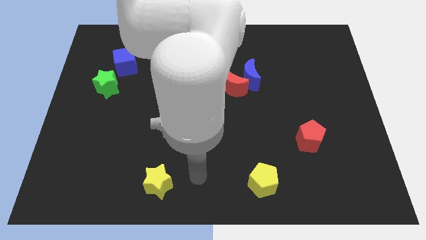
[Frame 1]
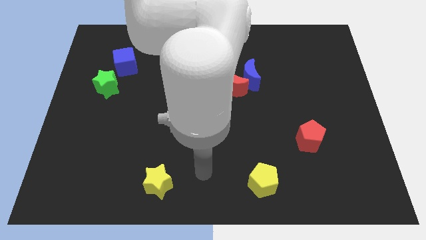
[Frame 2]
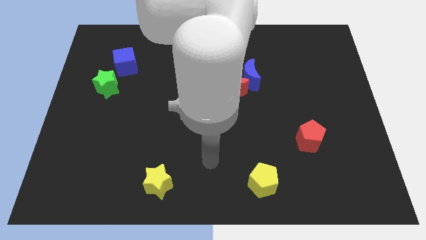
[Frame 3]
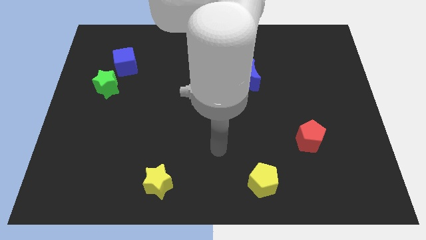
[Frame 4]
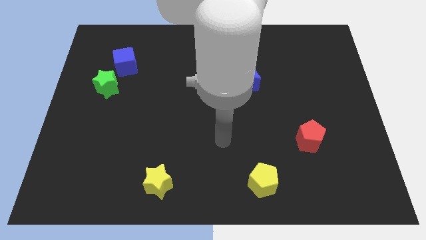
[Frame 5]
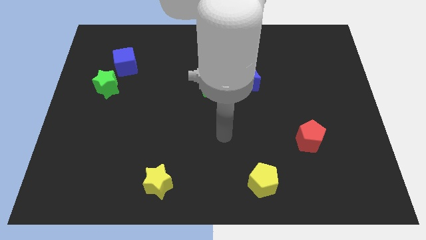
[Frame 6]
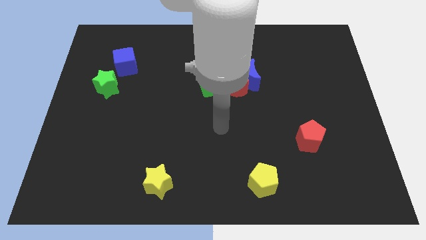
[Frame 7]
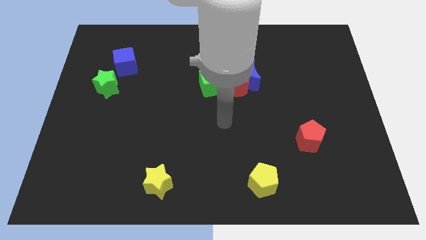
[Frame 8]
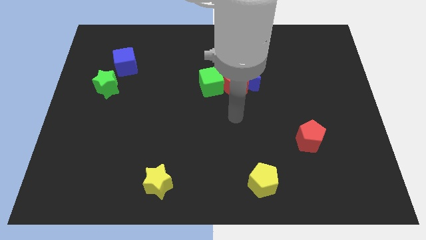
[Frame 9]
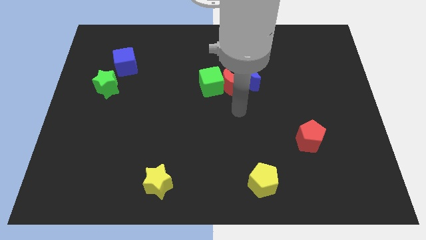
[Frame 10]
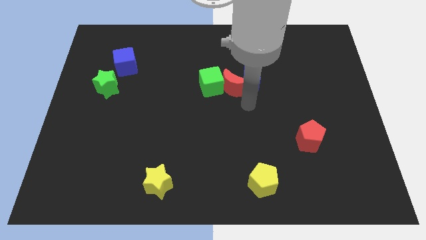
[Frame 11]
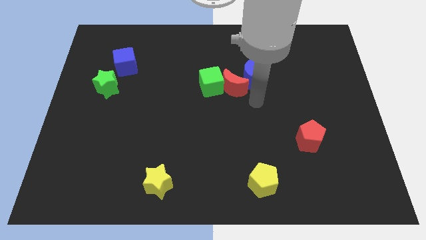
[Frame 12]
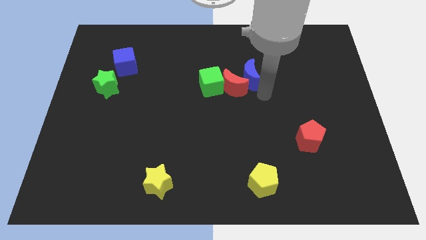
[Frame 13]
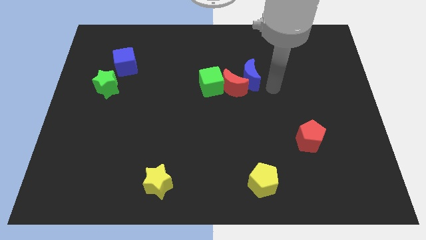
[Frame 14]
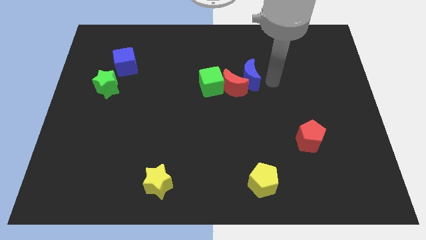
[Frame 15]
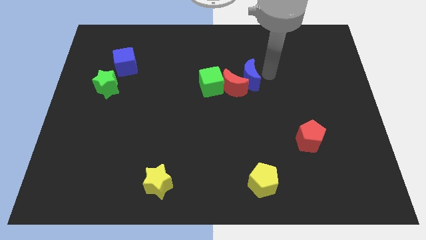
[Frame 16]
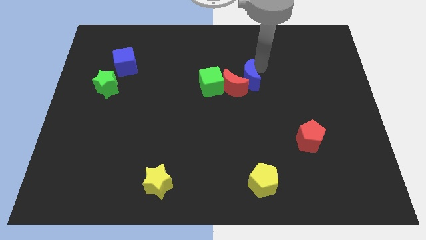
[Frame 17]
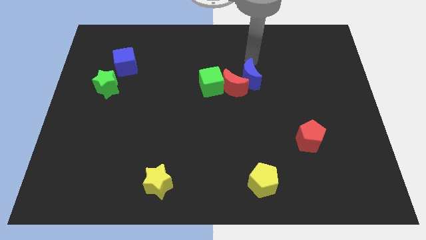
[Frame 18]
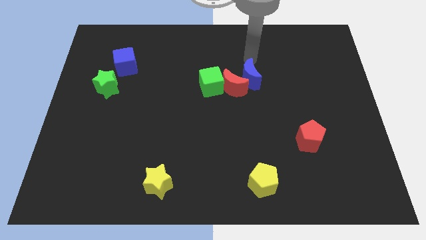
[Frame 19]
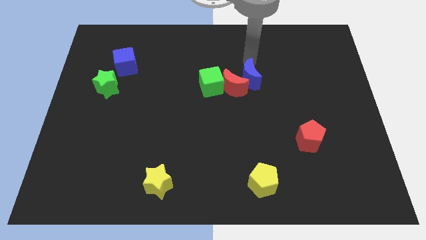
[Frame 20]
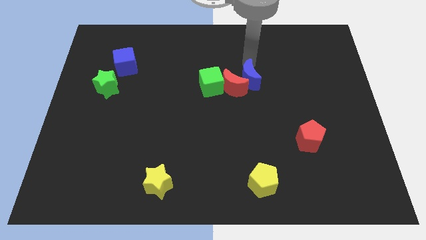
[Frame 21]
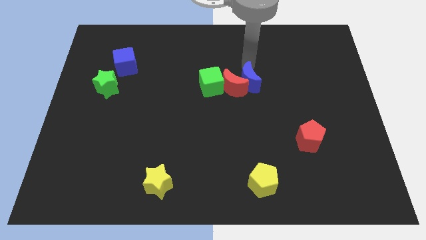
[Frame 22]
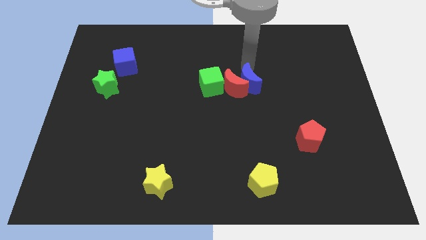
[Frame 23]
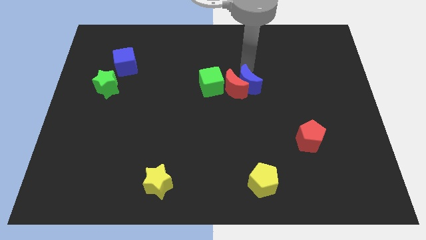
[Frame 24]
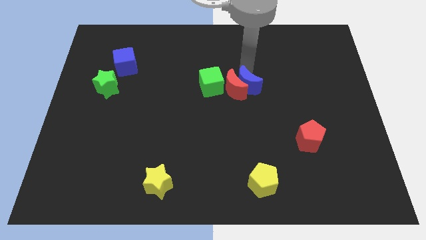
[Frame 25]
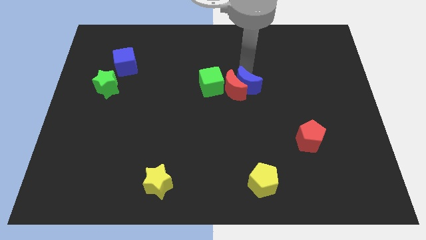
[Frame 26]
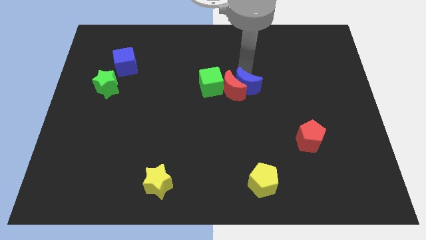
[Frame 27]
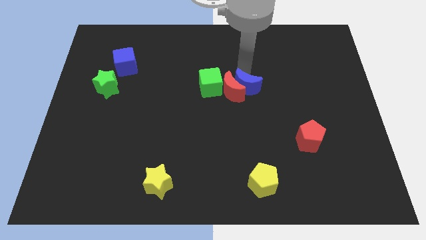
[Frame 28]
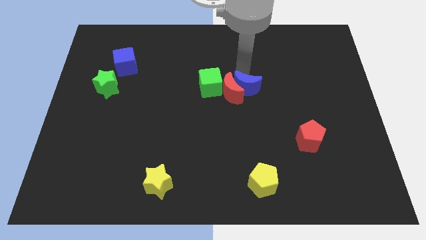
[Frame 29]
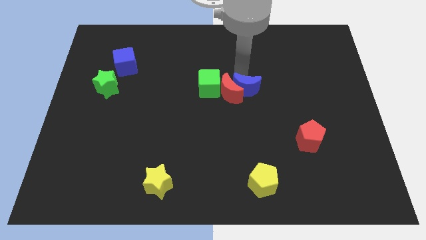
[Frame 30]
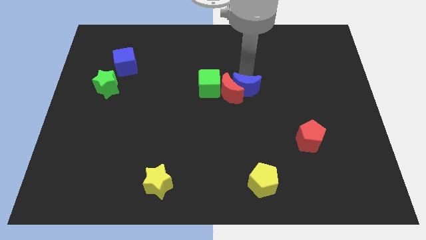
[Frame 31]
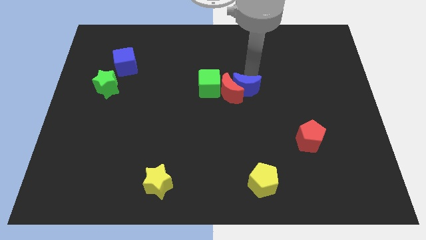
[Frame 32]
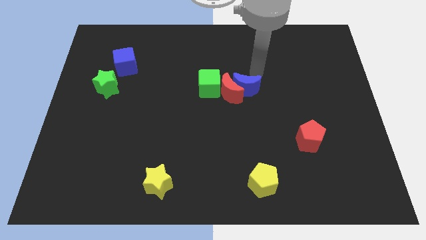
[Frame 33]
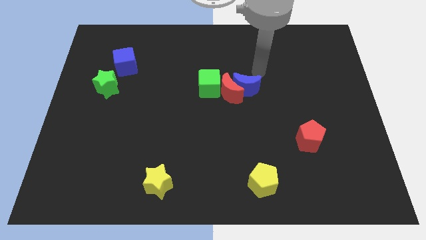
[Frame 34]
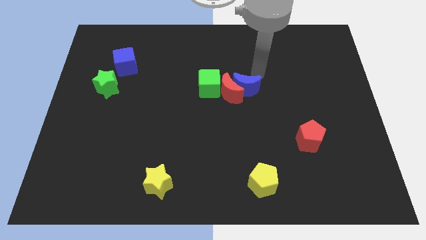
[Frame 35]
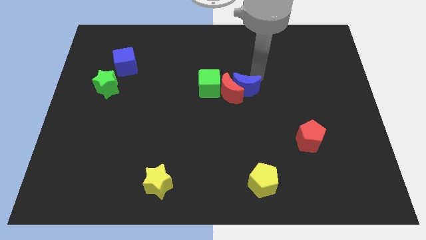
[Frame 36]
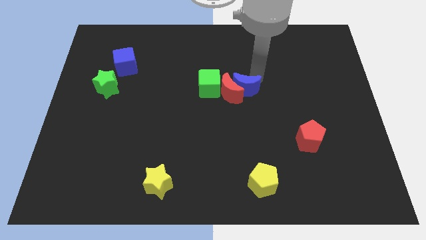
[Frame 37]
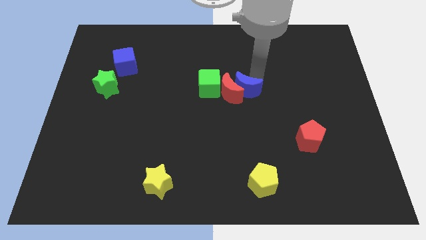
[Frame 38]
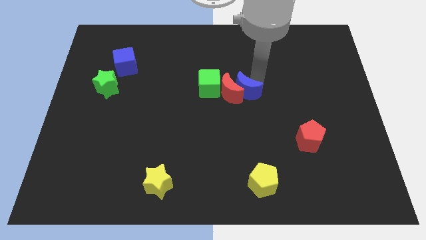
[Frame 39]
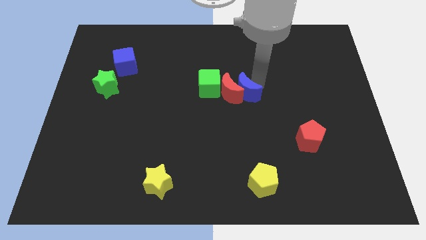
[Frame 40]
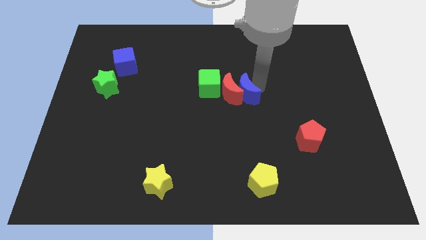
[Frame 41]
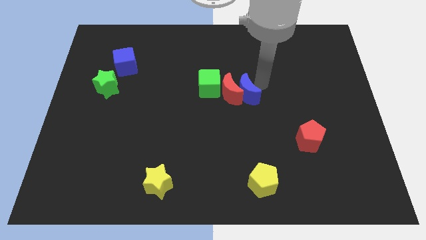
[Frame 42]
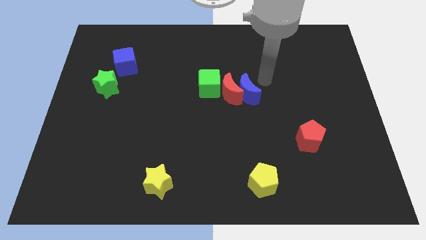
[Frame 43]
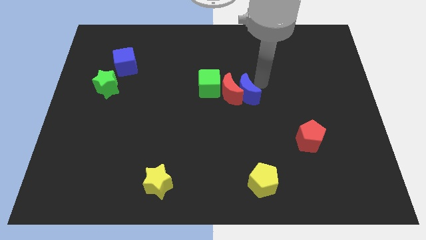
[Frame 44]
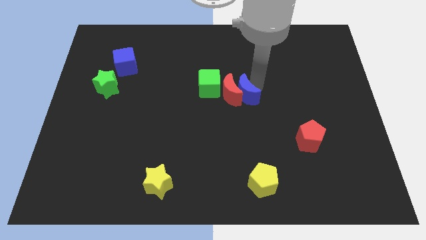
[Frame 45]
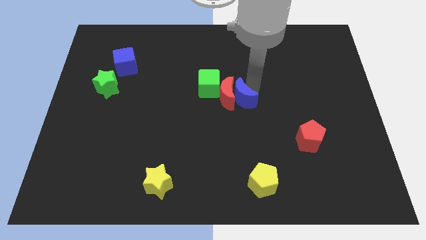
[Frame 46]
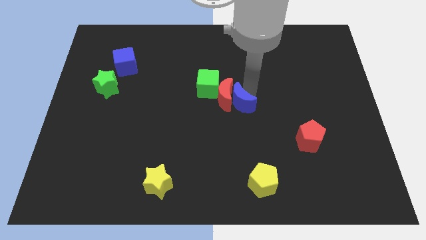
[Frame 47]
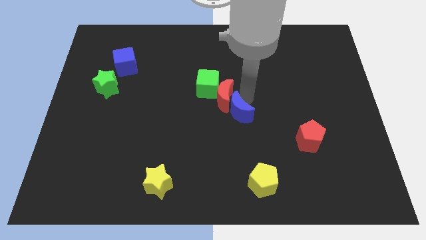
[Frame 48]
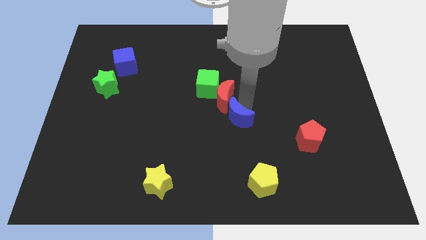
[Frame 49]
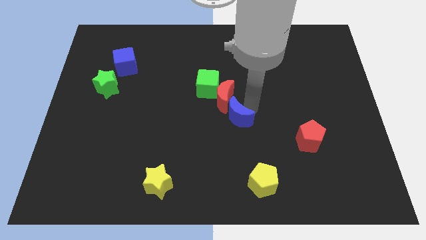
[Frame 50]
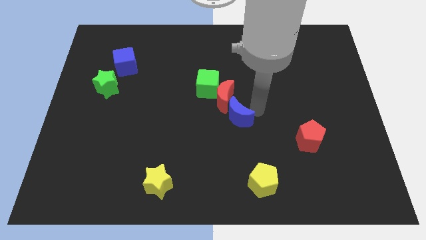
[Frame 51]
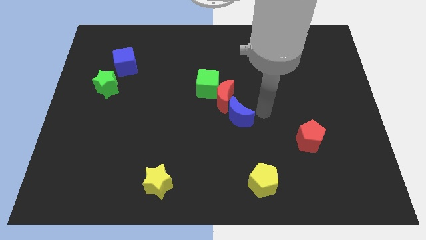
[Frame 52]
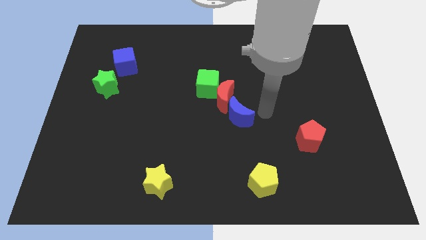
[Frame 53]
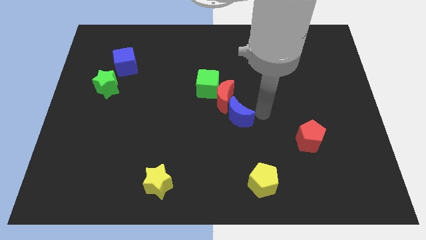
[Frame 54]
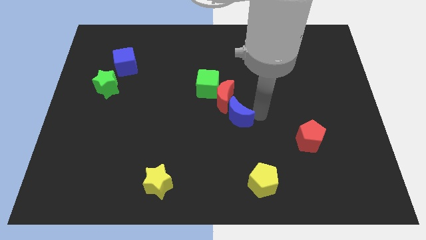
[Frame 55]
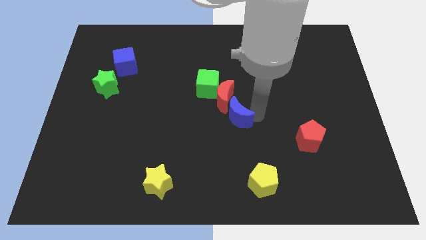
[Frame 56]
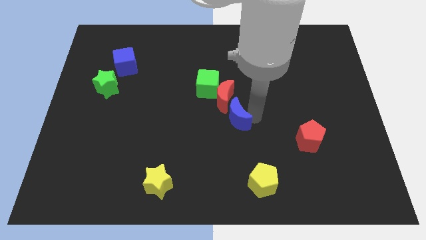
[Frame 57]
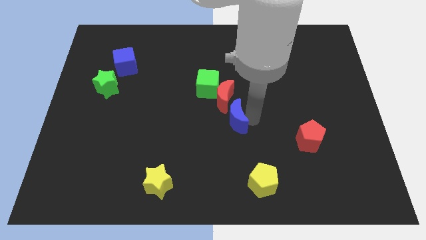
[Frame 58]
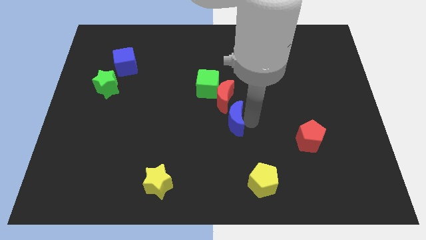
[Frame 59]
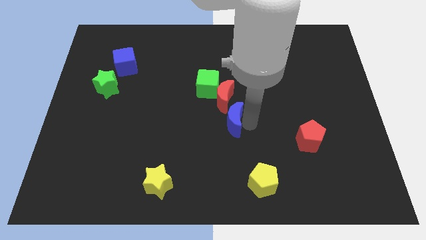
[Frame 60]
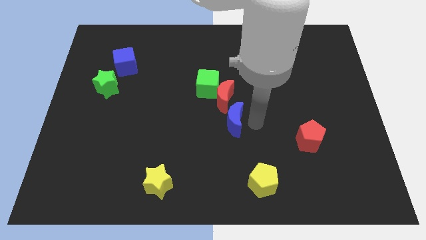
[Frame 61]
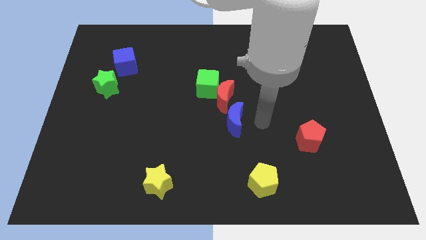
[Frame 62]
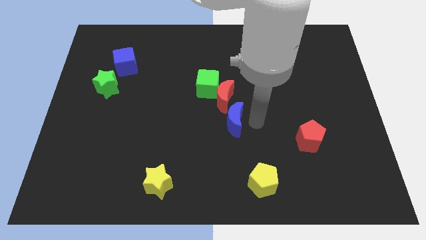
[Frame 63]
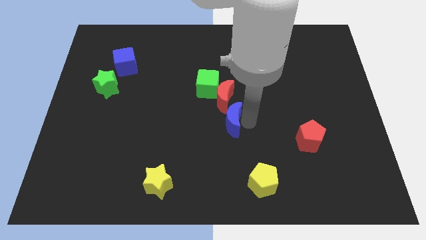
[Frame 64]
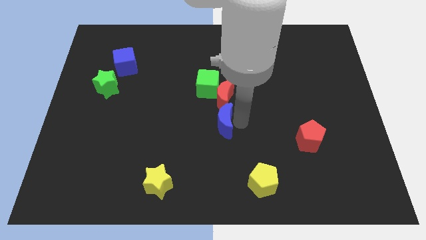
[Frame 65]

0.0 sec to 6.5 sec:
slide the blue moon below the green cube
